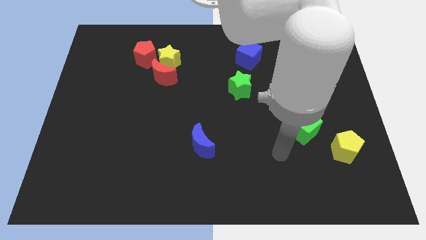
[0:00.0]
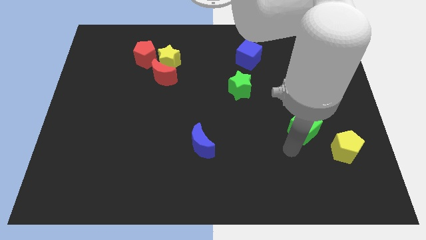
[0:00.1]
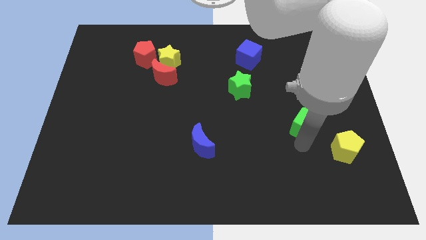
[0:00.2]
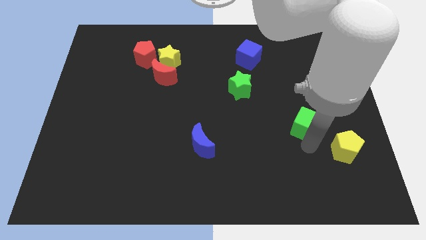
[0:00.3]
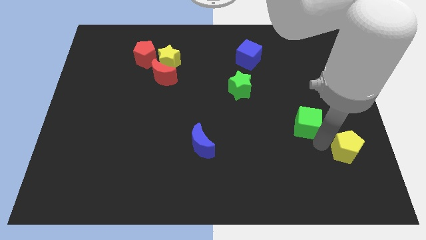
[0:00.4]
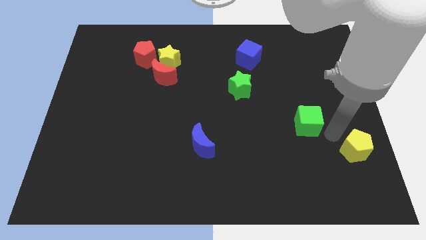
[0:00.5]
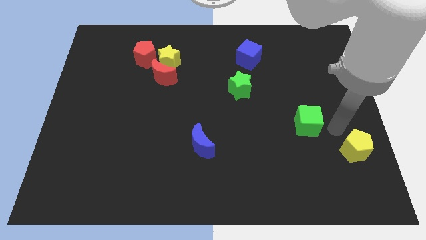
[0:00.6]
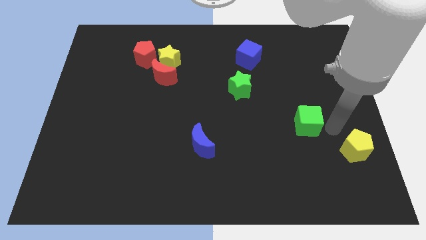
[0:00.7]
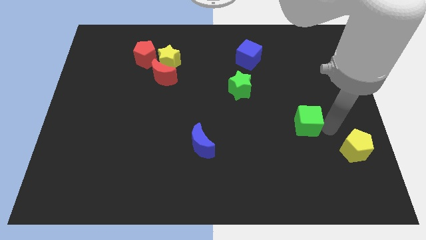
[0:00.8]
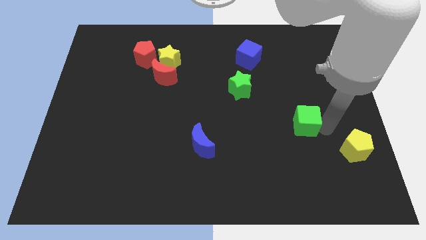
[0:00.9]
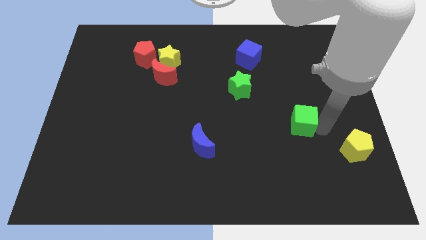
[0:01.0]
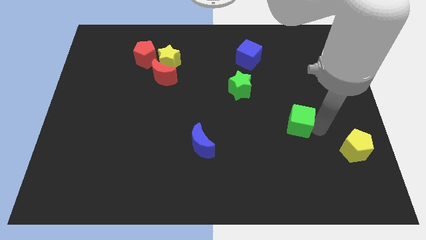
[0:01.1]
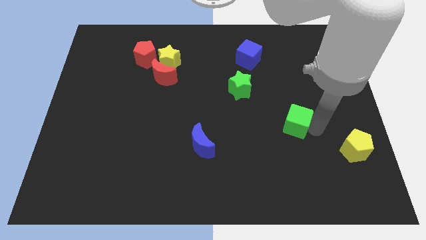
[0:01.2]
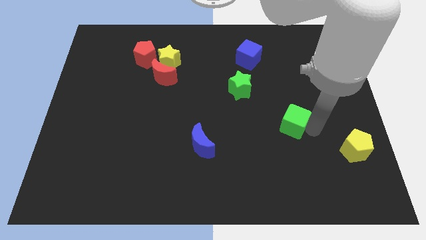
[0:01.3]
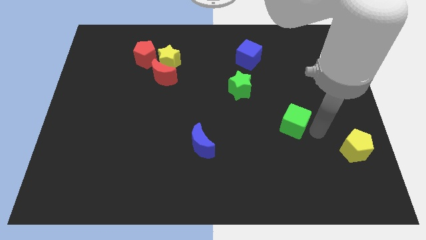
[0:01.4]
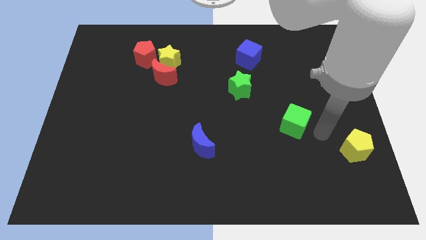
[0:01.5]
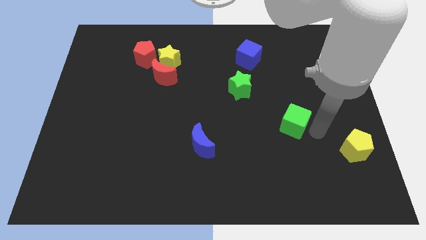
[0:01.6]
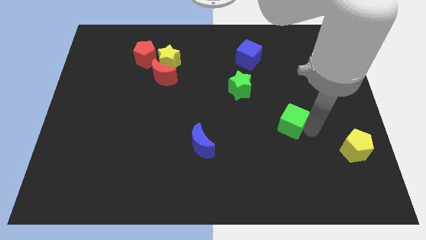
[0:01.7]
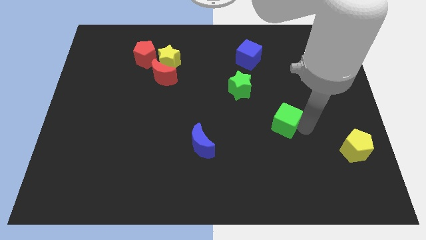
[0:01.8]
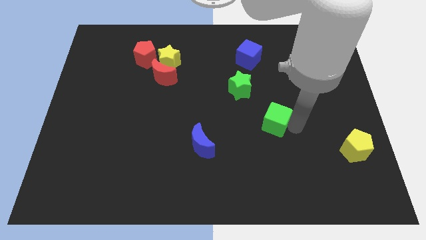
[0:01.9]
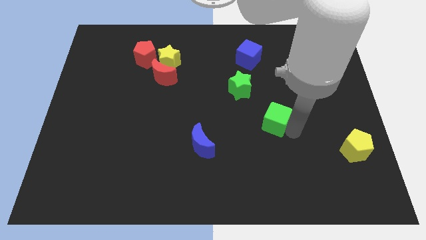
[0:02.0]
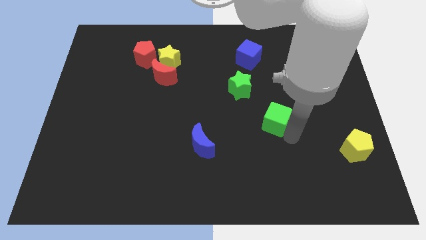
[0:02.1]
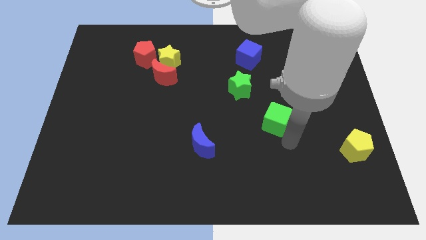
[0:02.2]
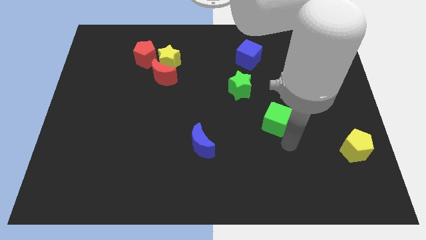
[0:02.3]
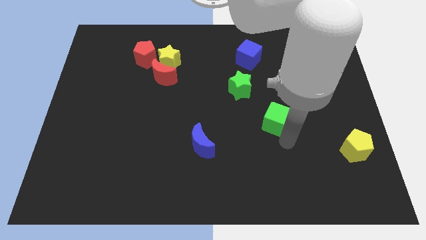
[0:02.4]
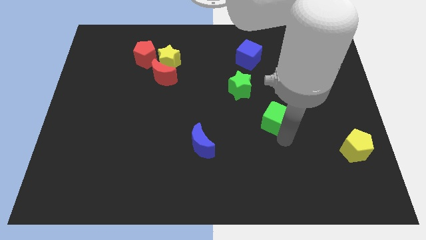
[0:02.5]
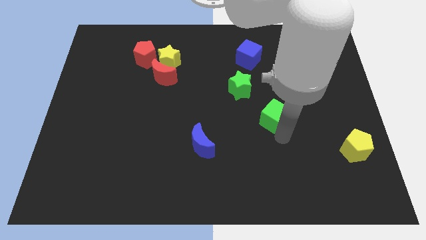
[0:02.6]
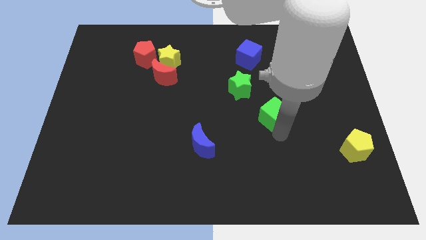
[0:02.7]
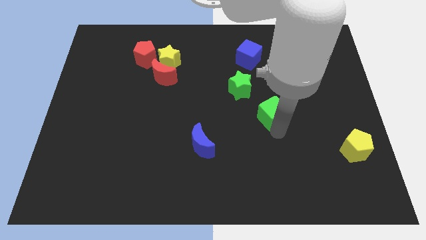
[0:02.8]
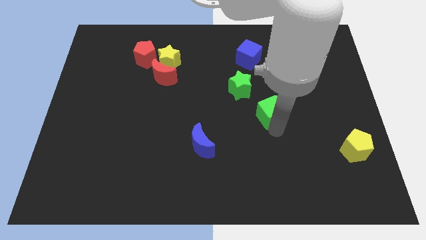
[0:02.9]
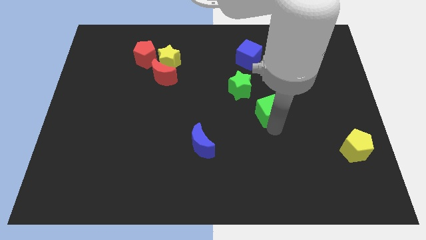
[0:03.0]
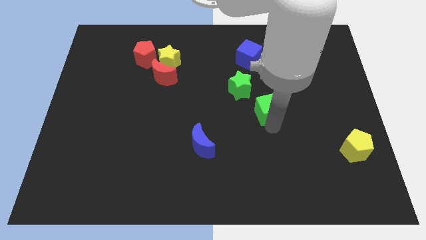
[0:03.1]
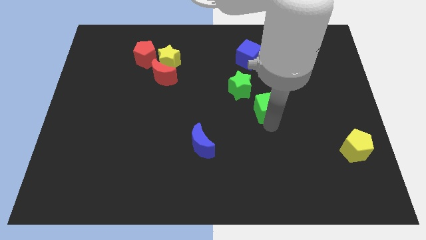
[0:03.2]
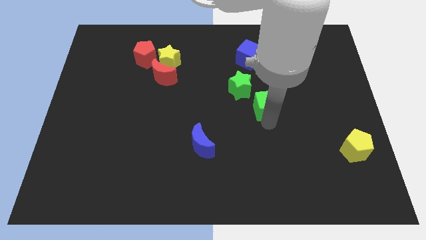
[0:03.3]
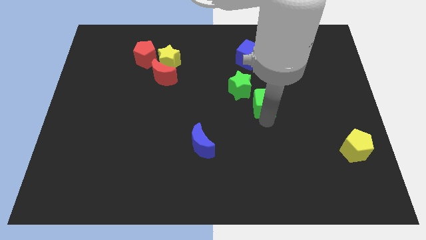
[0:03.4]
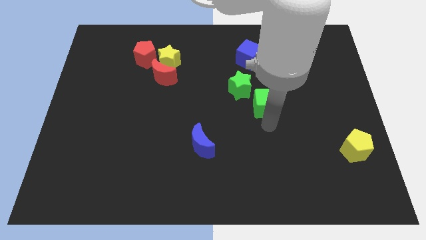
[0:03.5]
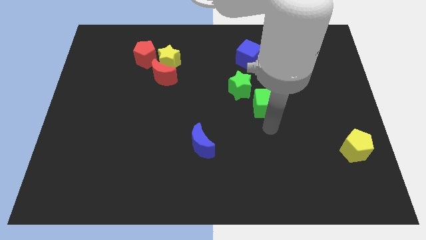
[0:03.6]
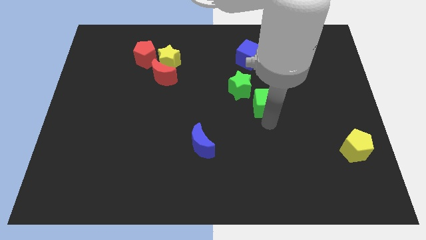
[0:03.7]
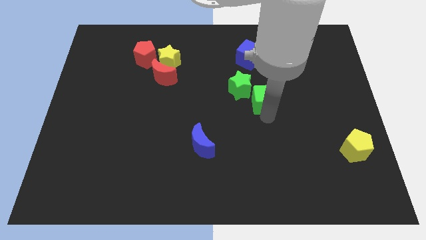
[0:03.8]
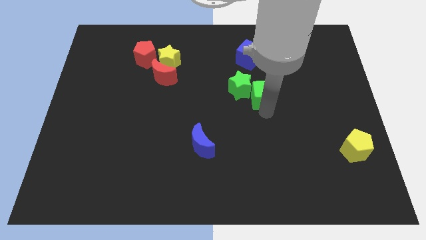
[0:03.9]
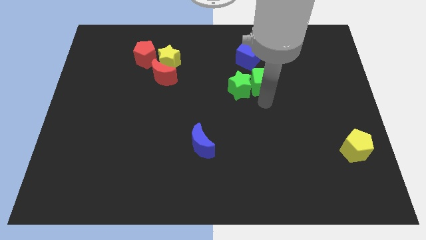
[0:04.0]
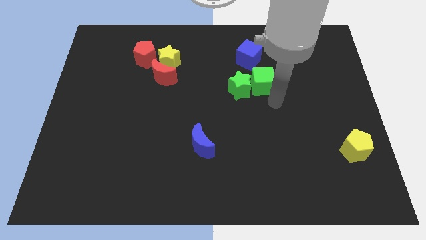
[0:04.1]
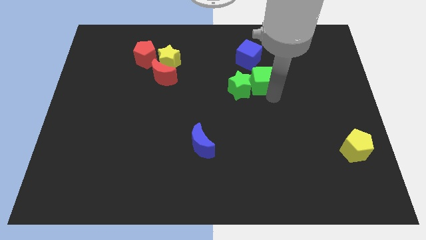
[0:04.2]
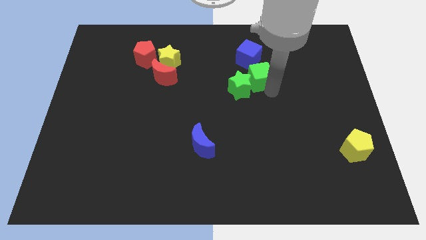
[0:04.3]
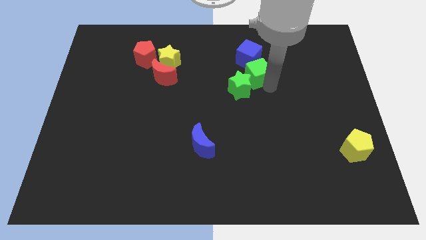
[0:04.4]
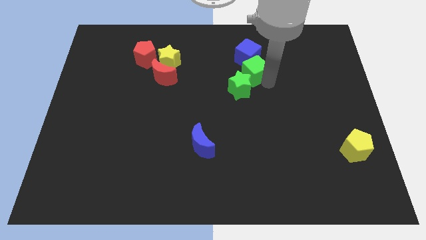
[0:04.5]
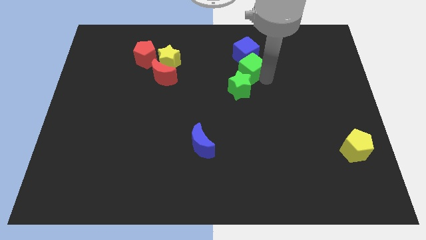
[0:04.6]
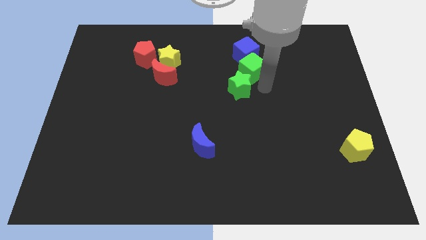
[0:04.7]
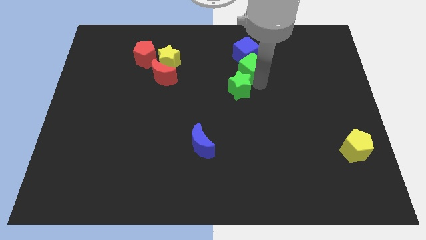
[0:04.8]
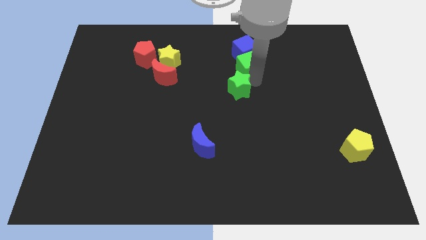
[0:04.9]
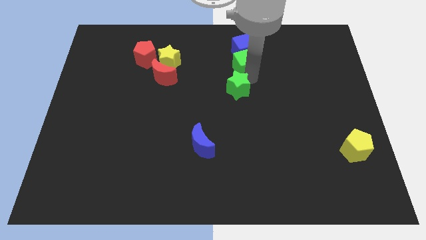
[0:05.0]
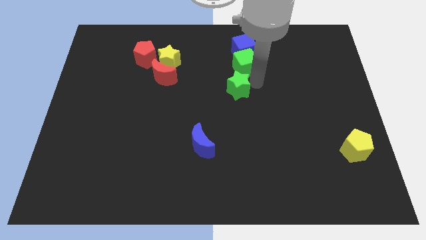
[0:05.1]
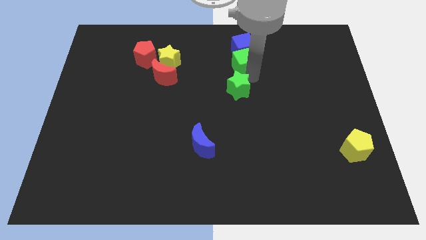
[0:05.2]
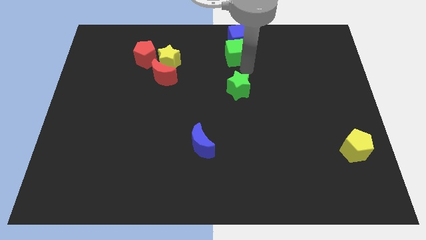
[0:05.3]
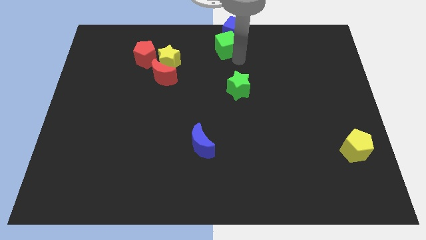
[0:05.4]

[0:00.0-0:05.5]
slide the green cube to the top side

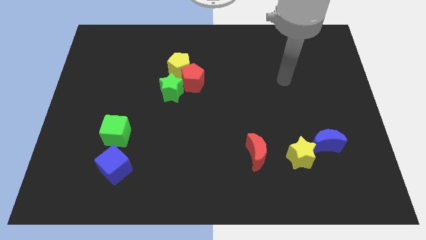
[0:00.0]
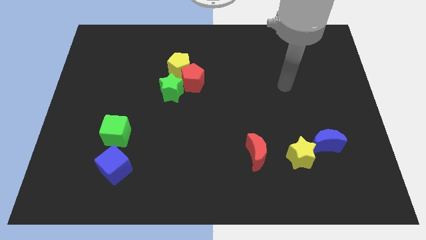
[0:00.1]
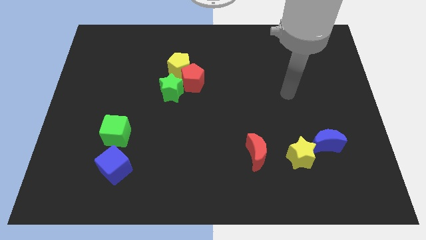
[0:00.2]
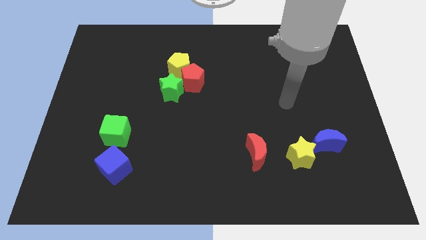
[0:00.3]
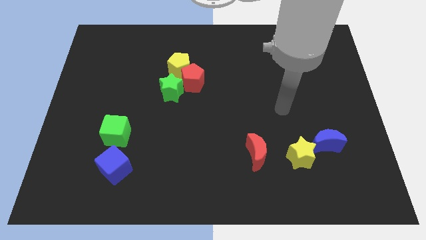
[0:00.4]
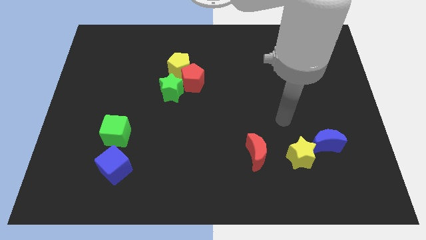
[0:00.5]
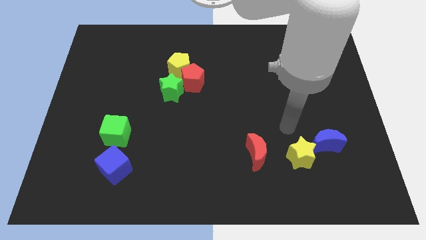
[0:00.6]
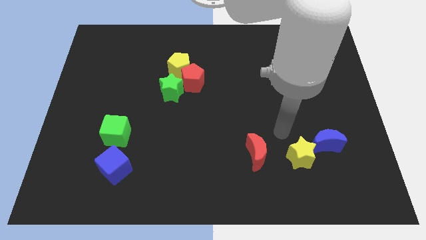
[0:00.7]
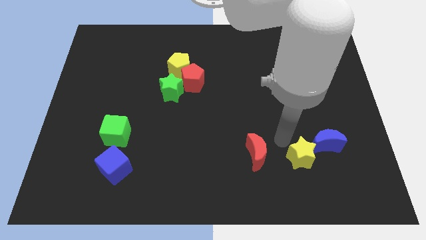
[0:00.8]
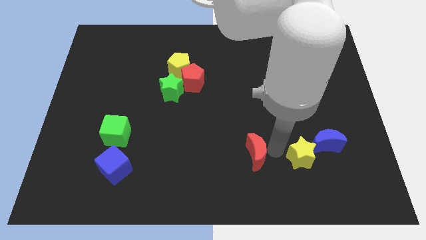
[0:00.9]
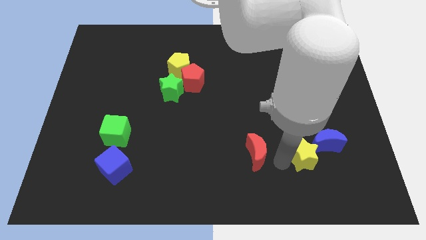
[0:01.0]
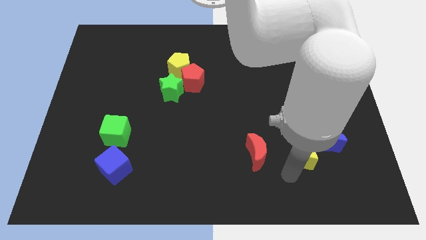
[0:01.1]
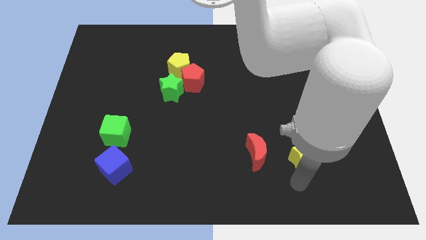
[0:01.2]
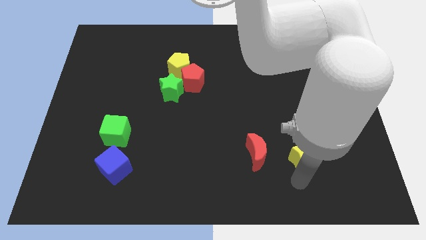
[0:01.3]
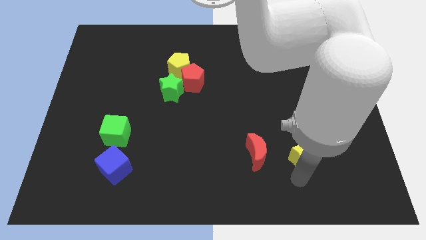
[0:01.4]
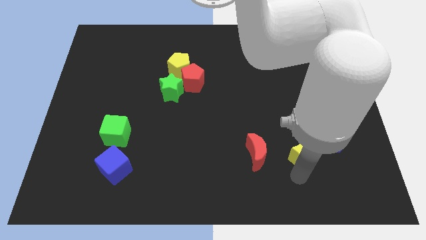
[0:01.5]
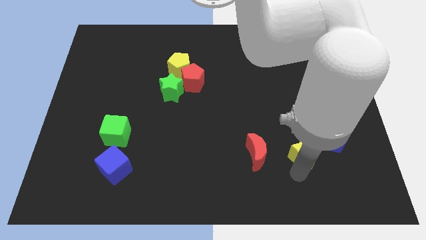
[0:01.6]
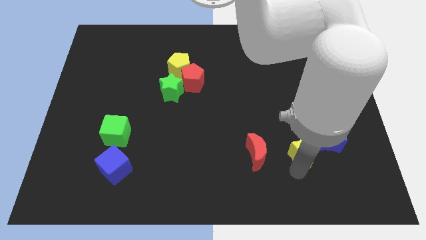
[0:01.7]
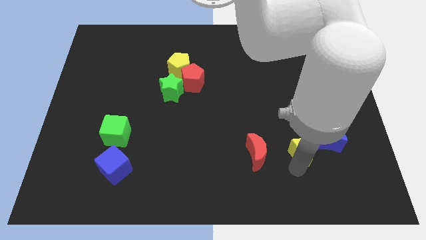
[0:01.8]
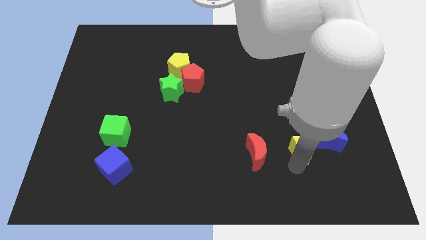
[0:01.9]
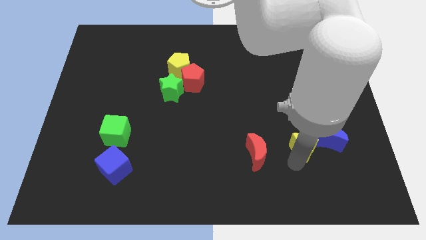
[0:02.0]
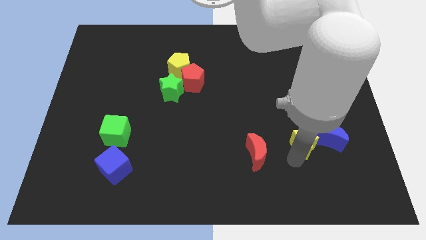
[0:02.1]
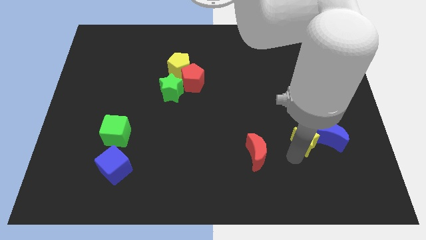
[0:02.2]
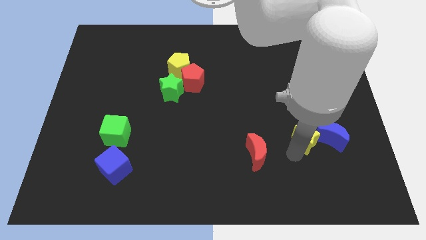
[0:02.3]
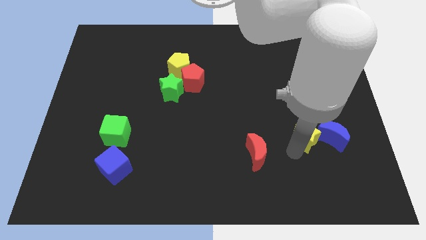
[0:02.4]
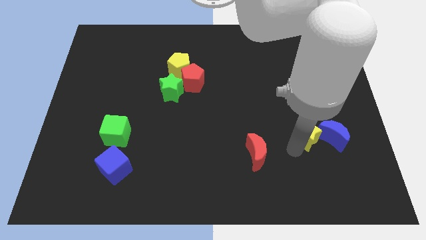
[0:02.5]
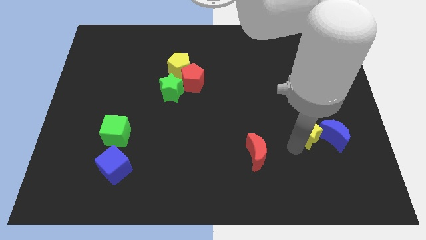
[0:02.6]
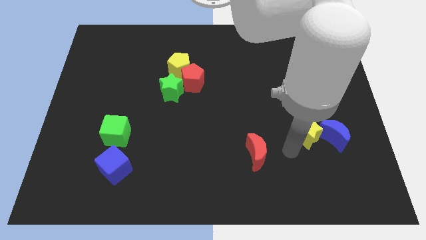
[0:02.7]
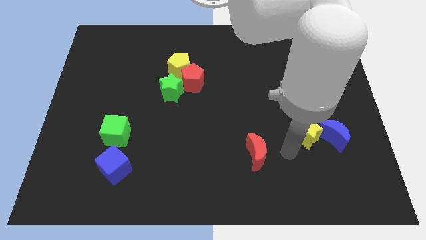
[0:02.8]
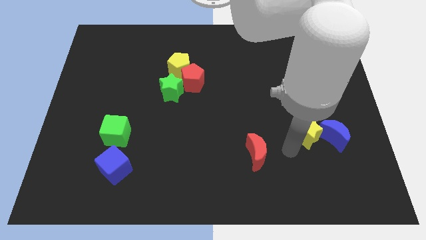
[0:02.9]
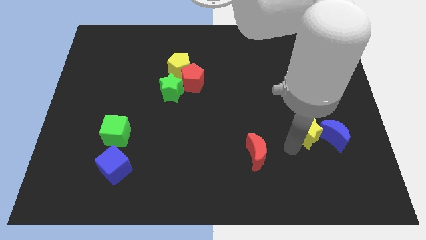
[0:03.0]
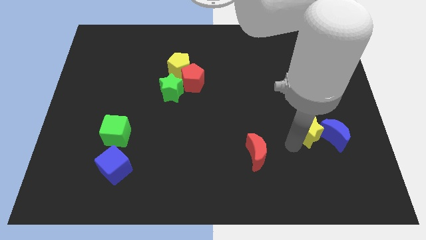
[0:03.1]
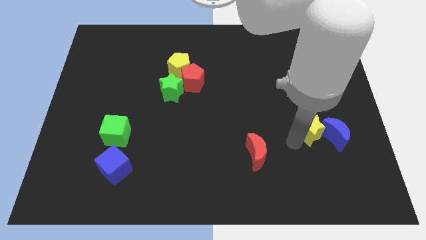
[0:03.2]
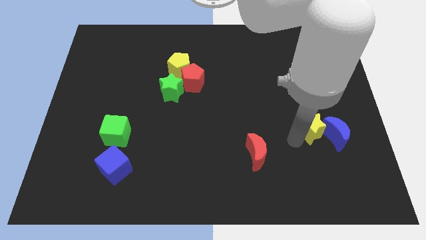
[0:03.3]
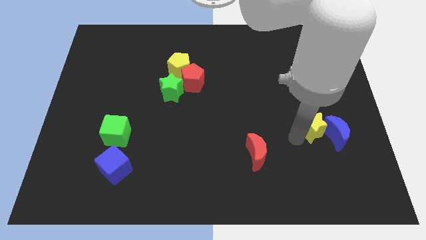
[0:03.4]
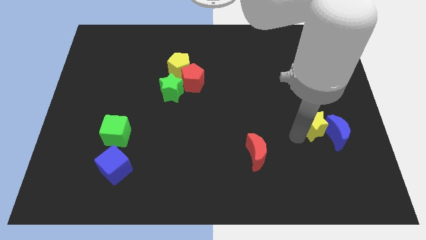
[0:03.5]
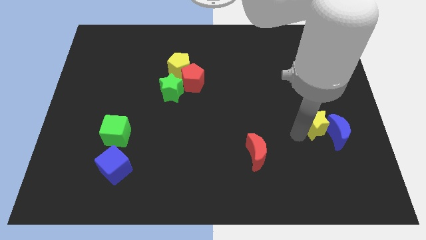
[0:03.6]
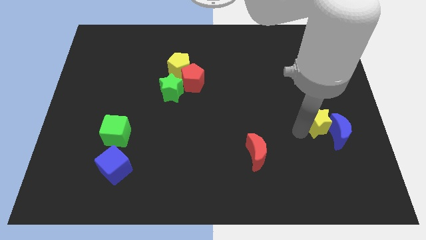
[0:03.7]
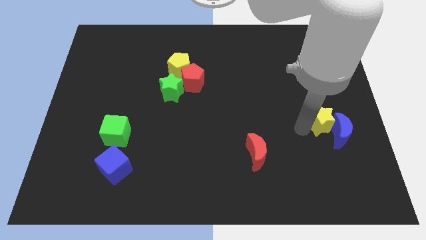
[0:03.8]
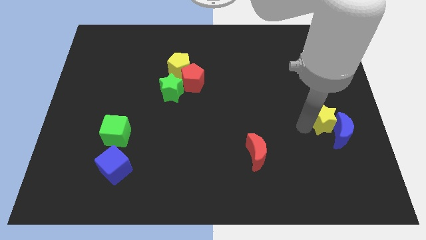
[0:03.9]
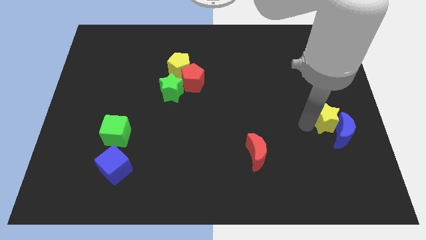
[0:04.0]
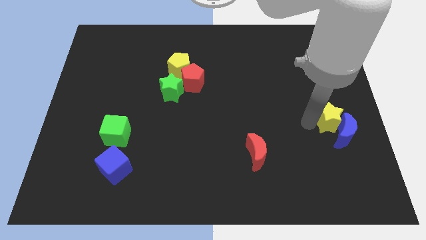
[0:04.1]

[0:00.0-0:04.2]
slide the yellow star to the right side of the board
